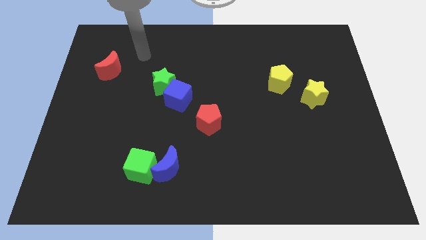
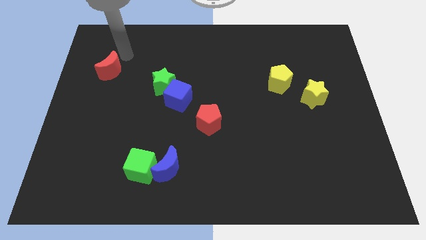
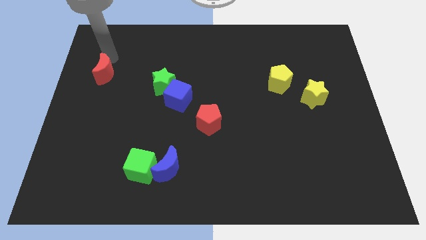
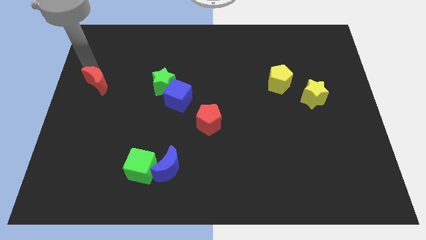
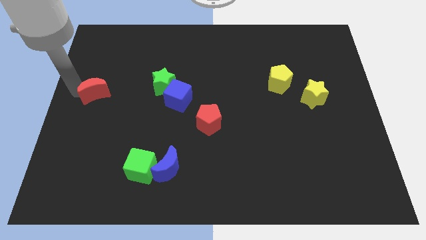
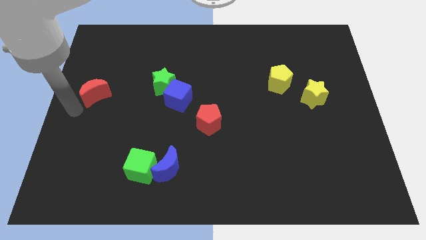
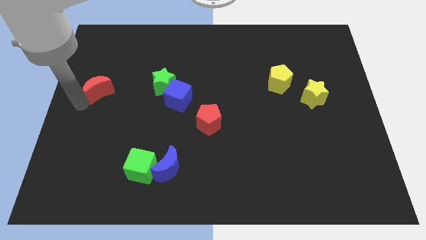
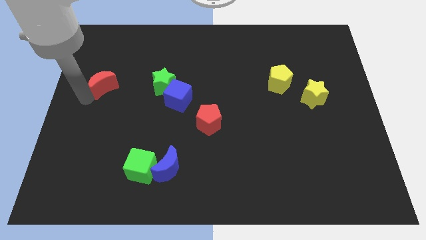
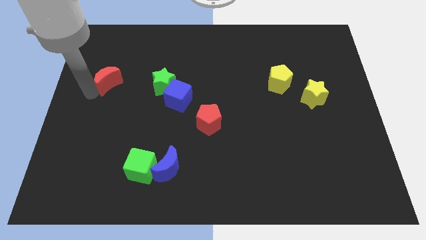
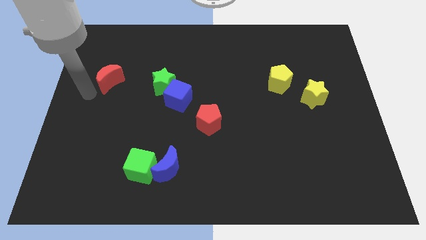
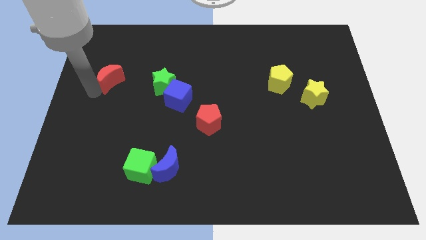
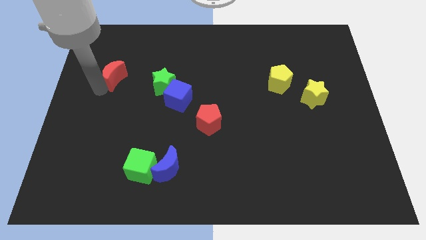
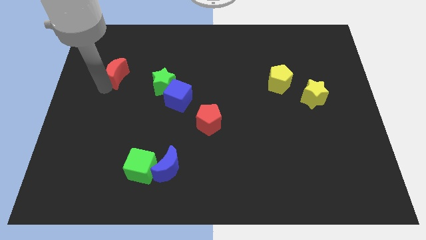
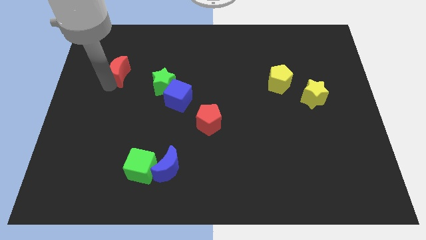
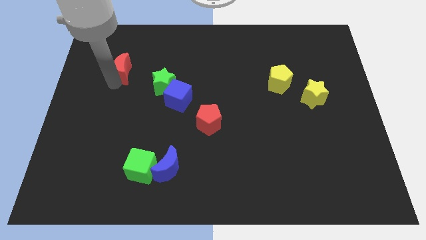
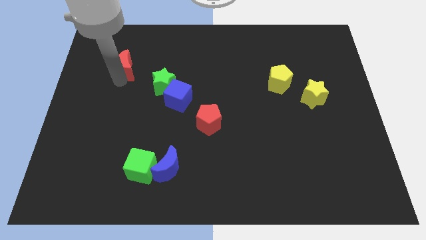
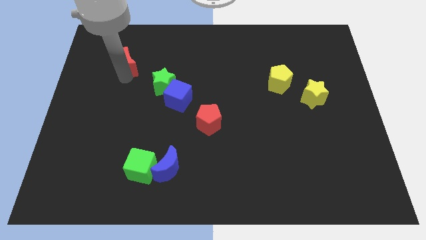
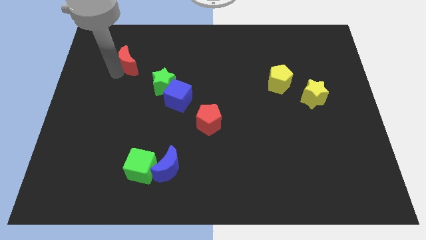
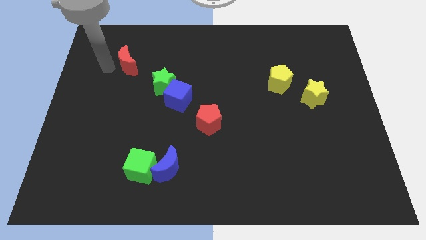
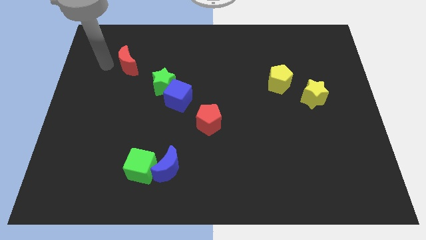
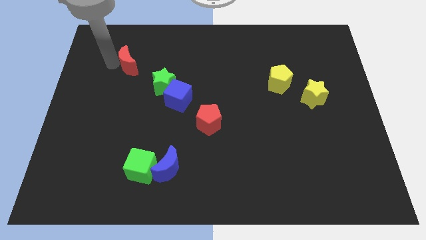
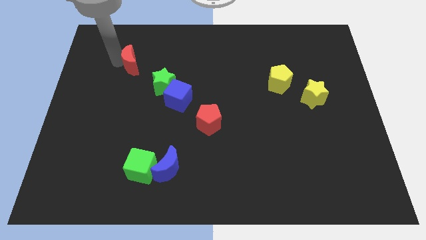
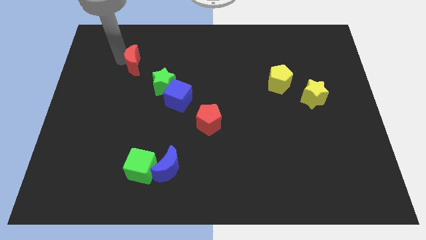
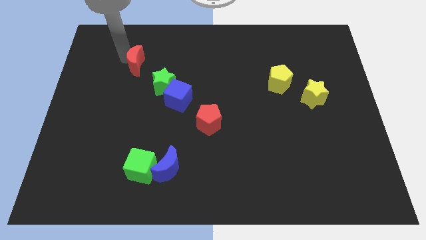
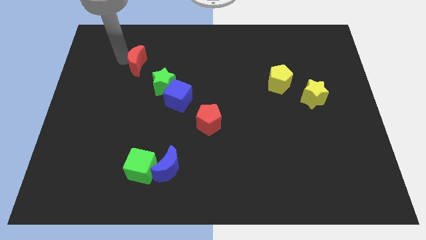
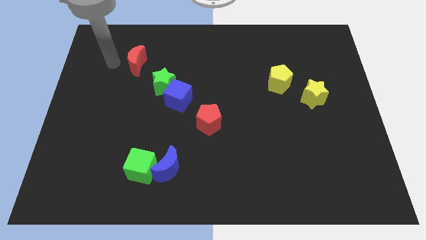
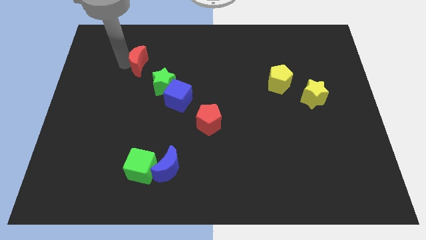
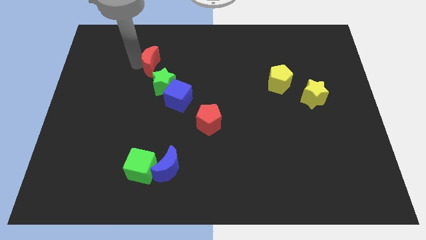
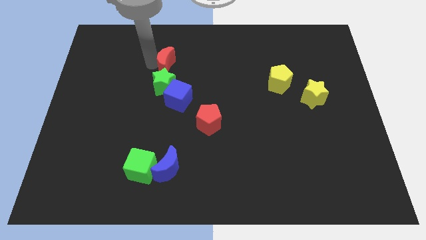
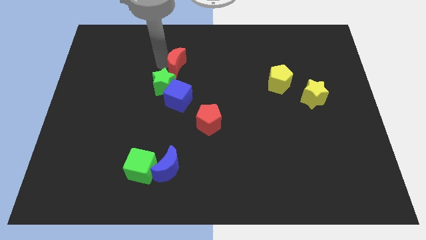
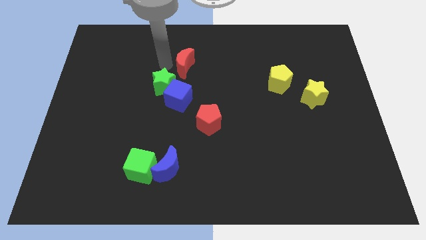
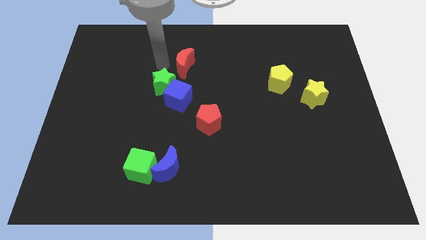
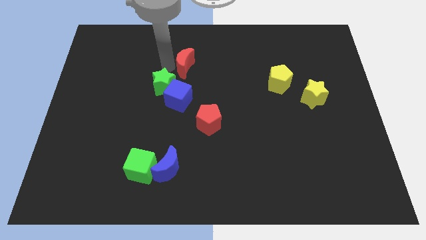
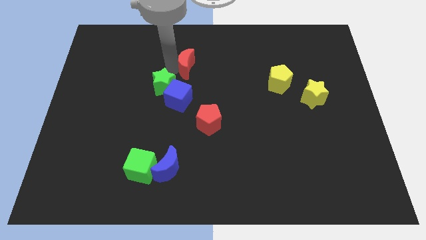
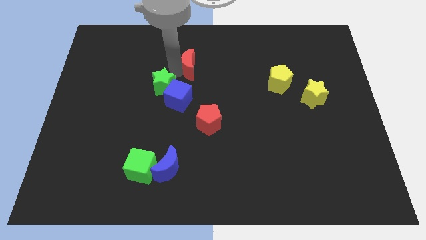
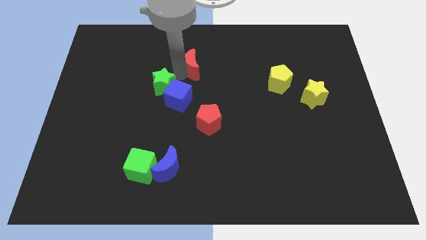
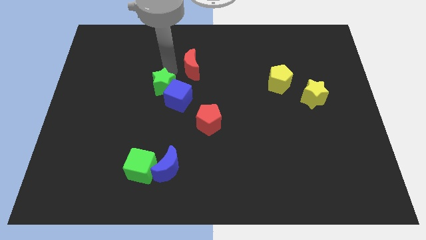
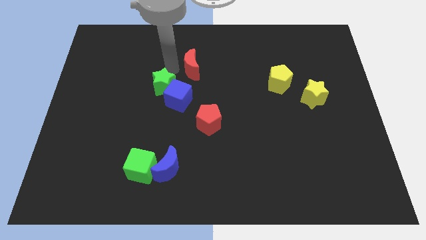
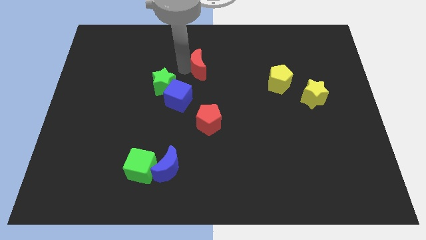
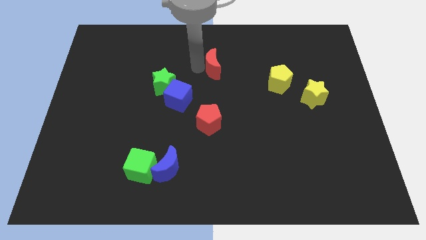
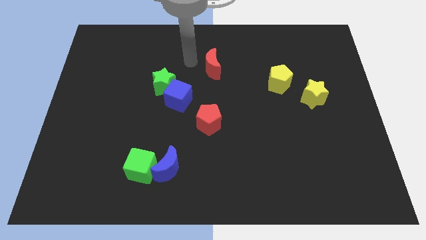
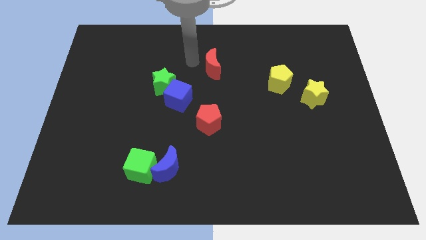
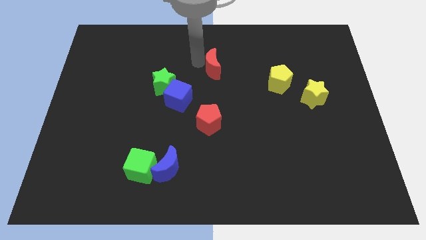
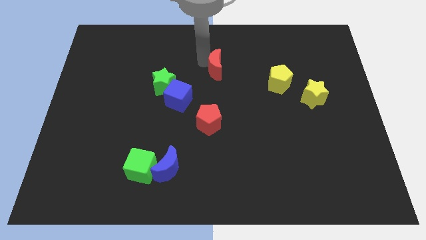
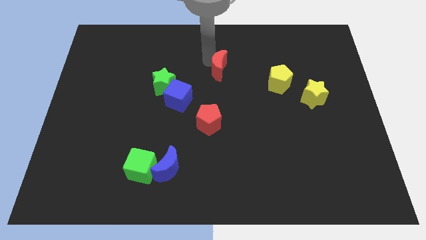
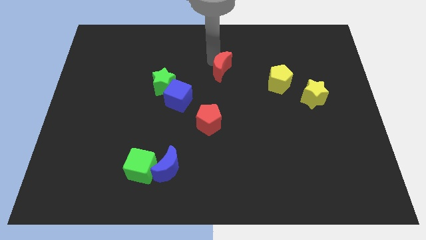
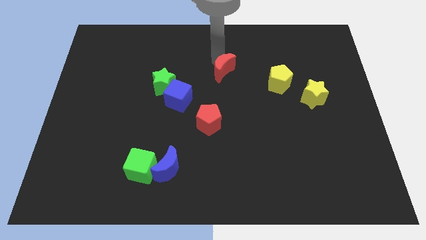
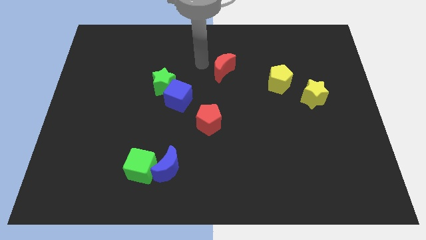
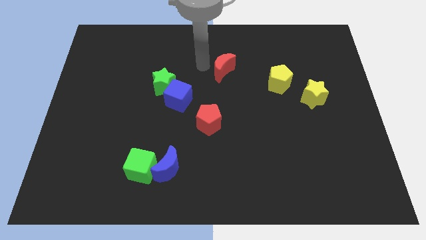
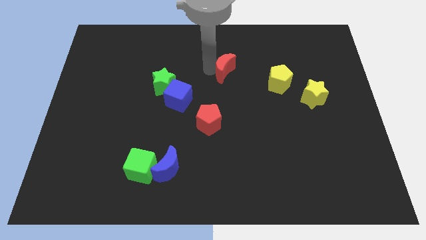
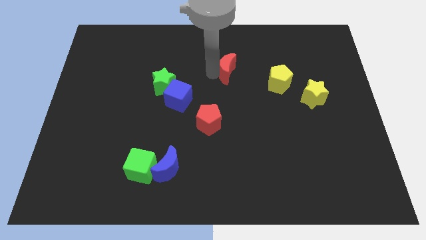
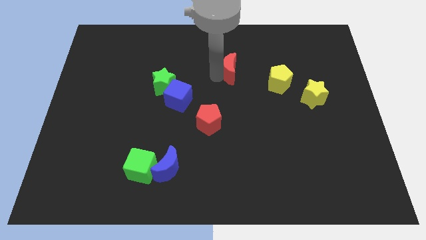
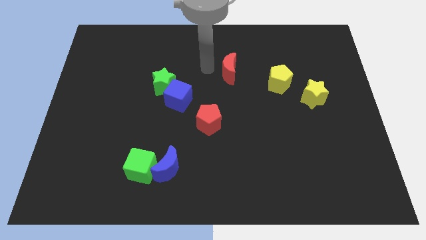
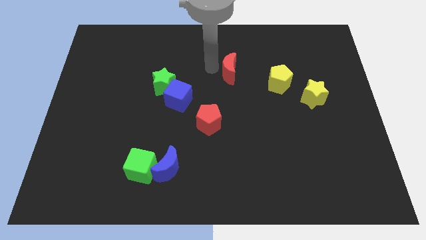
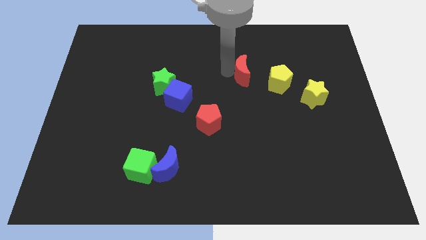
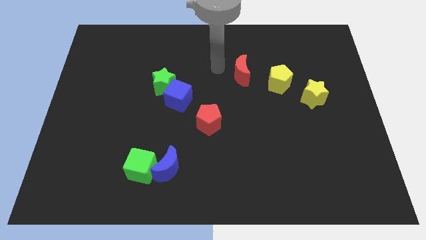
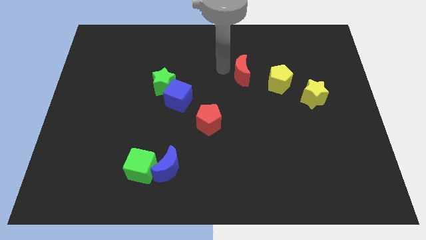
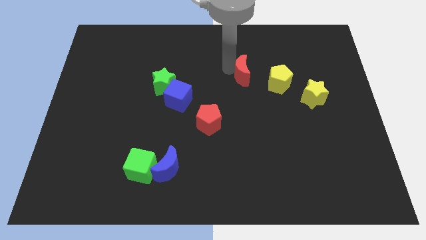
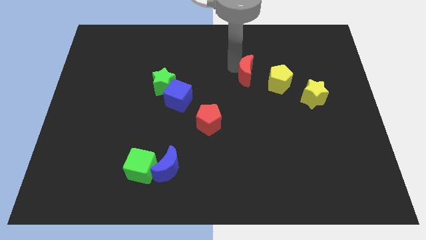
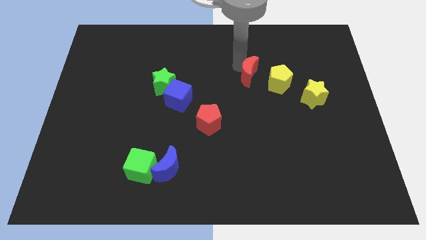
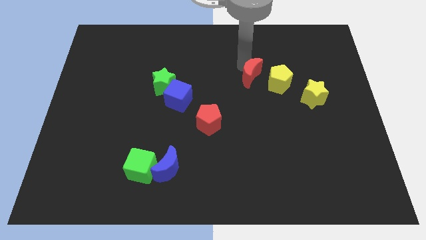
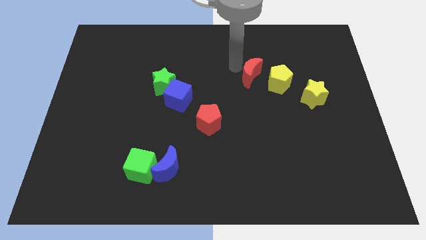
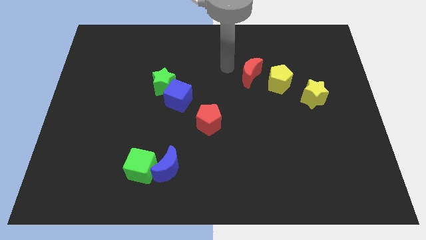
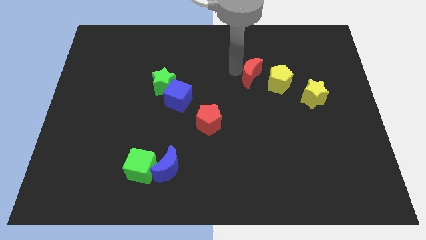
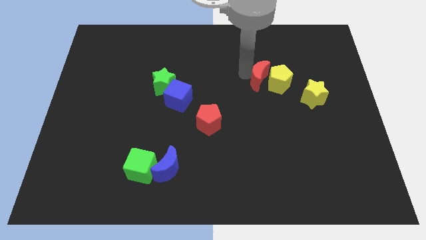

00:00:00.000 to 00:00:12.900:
move the red moon next to the yellow pentagon

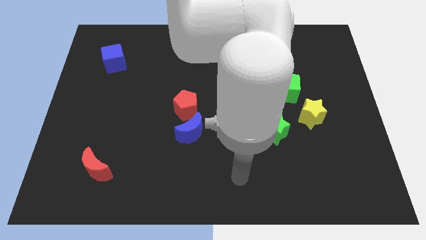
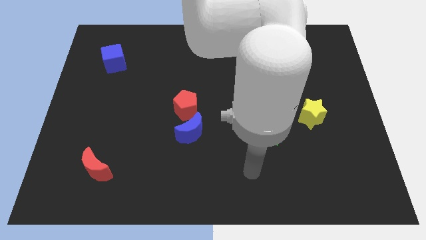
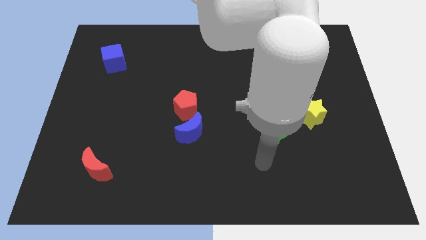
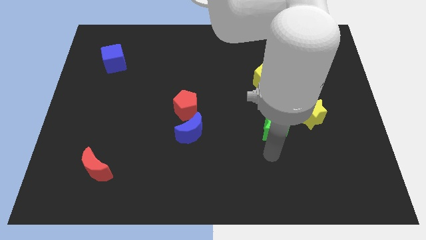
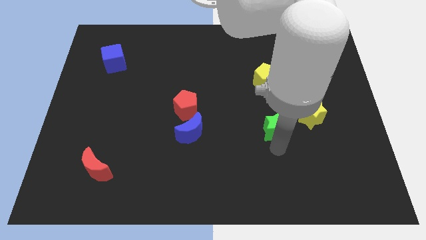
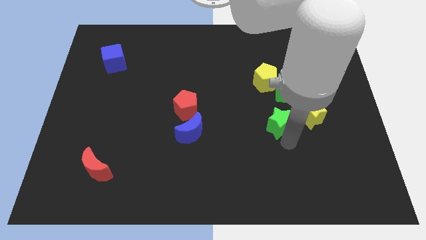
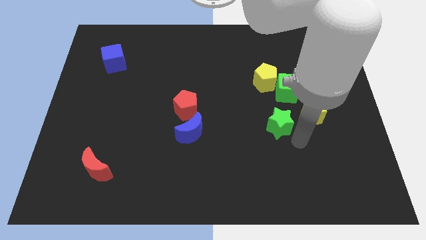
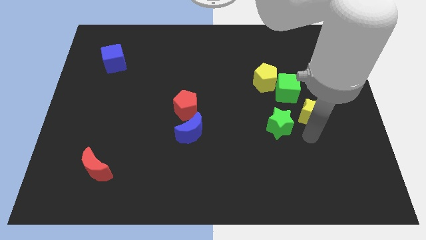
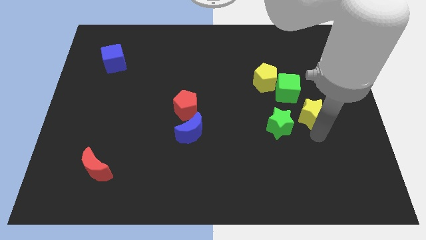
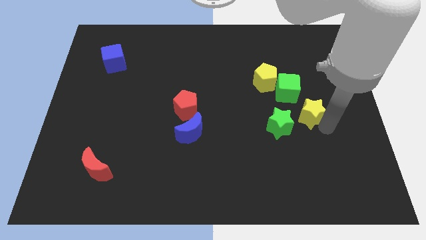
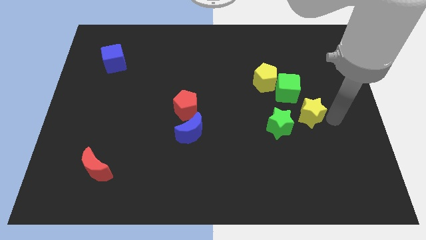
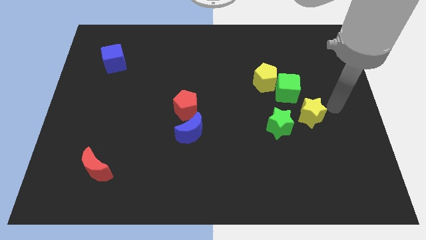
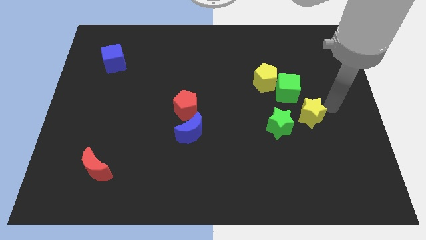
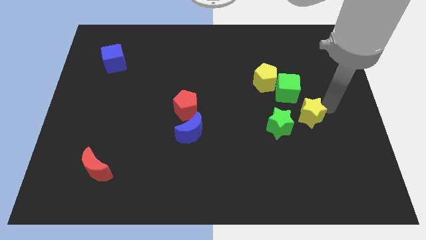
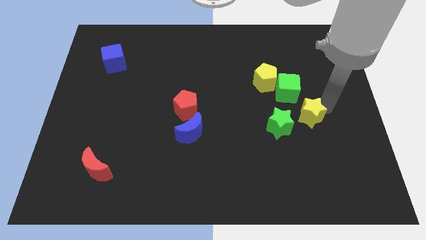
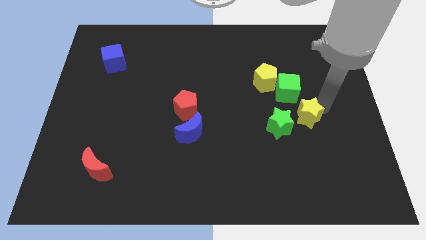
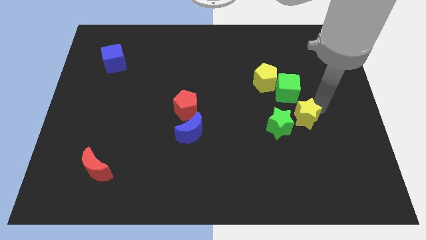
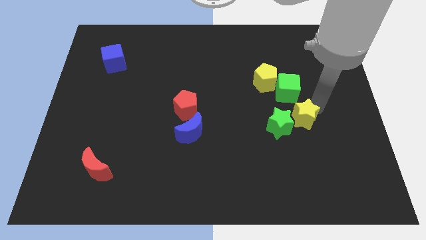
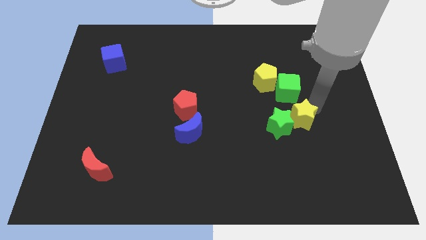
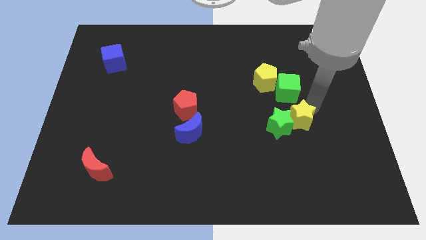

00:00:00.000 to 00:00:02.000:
move the yellow star to the green star
